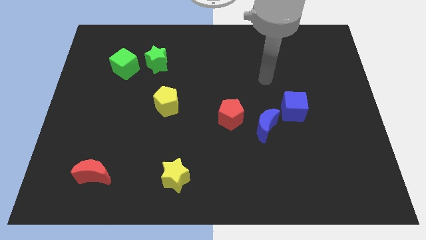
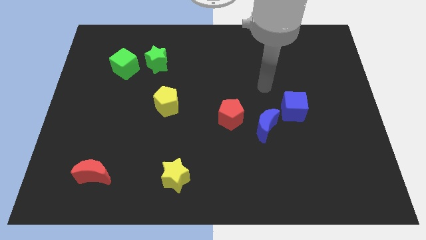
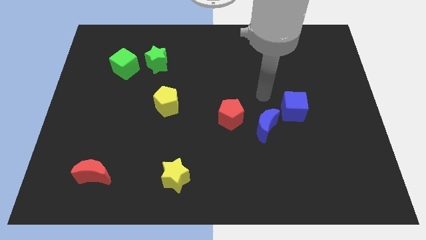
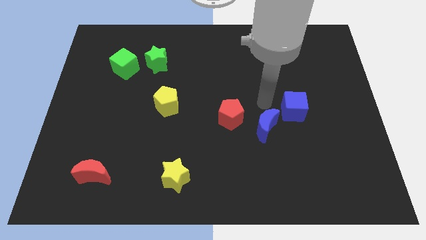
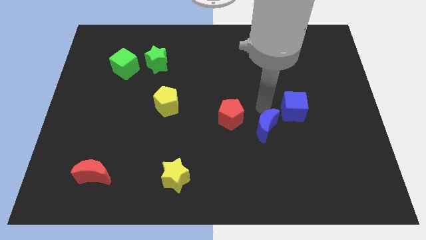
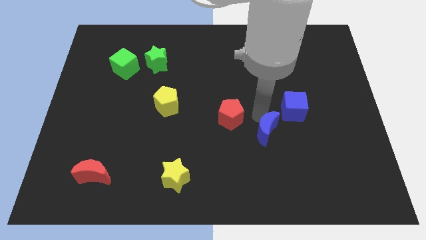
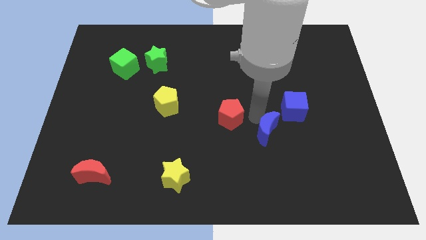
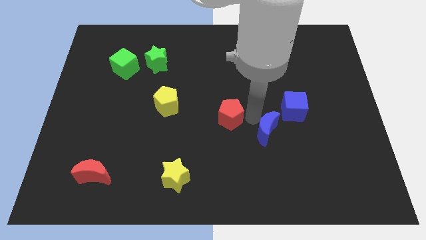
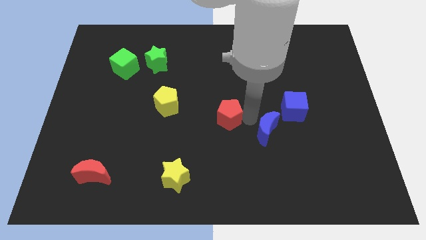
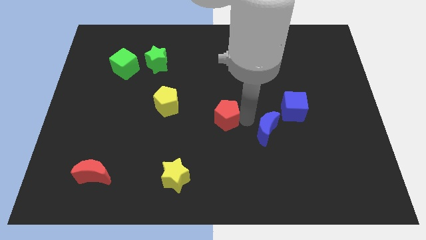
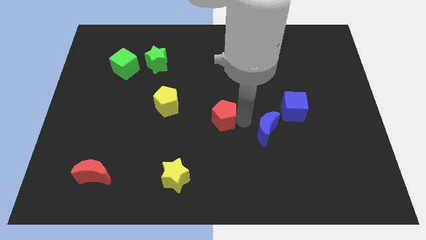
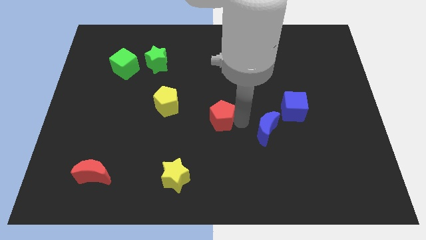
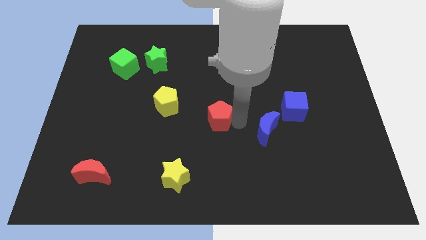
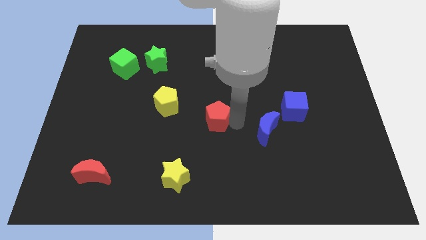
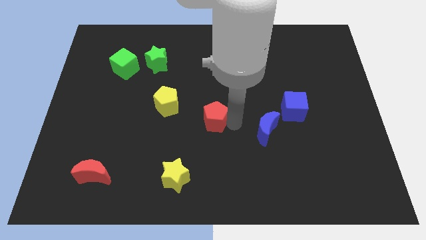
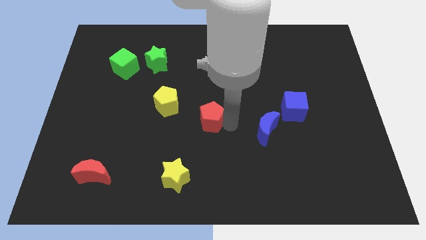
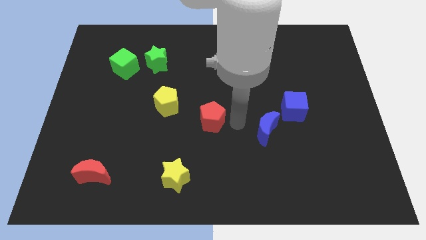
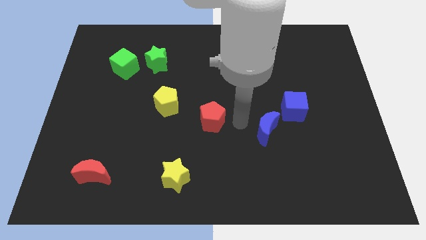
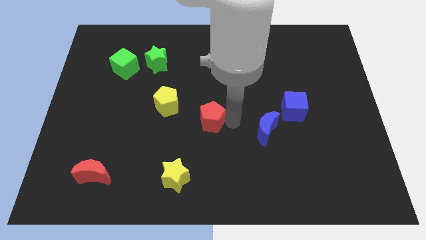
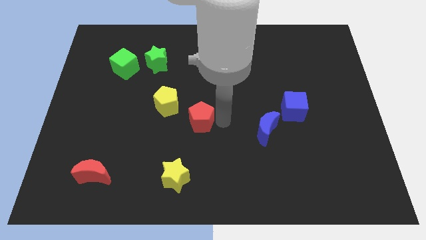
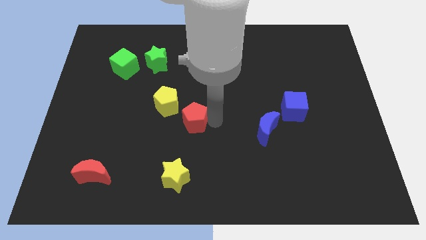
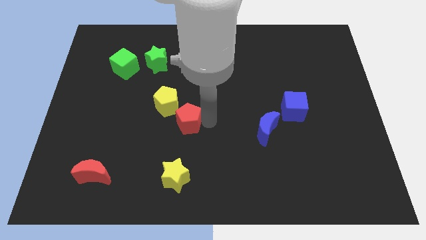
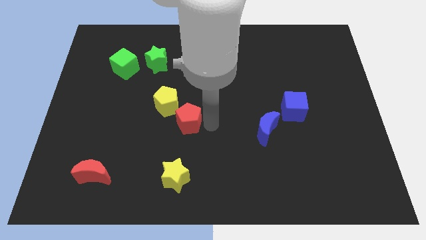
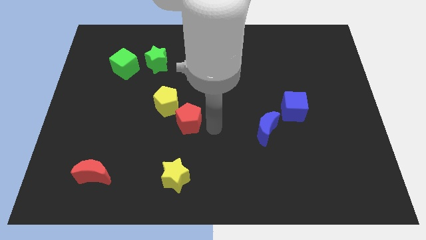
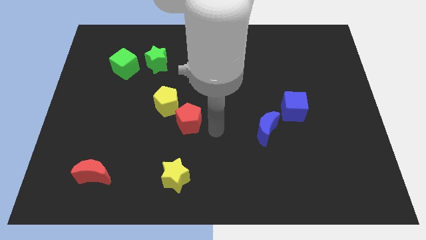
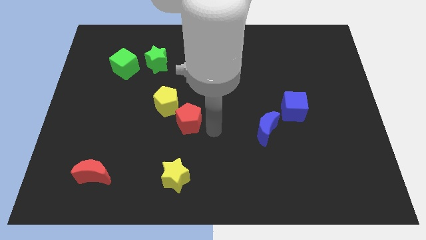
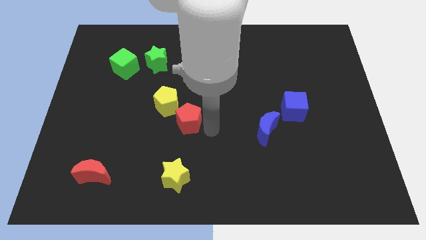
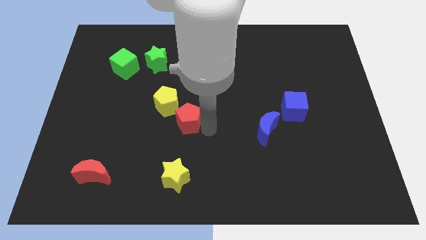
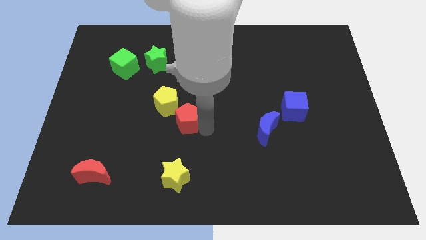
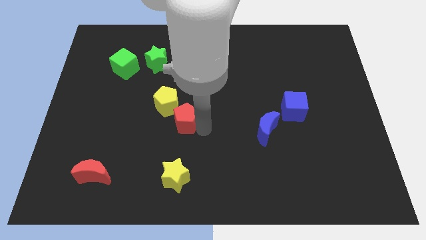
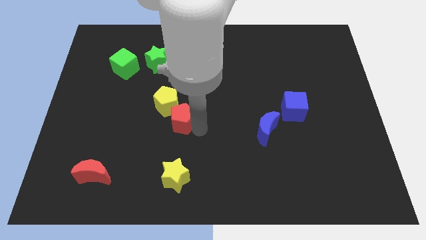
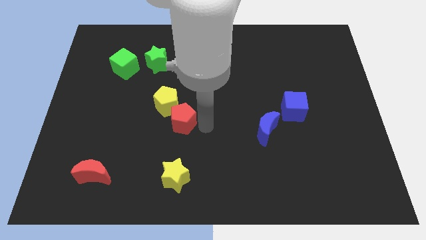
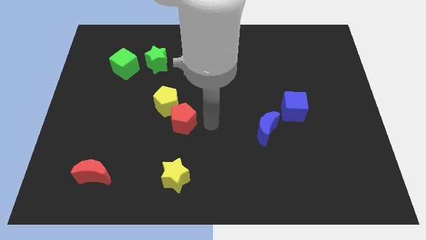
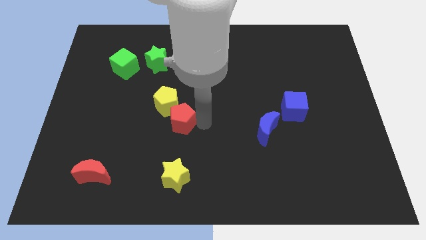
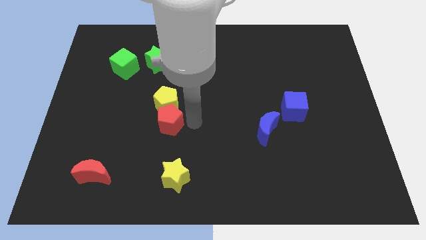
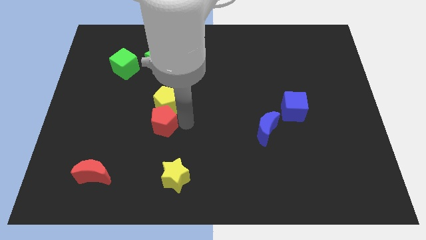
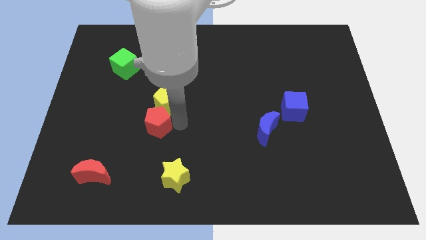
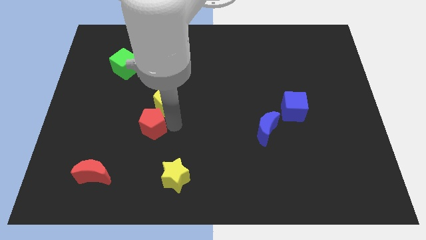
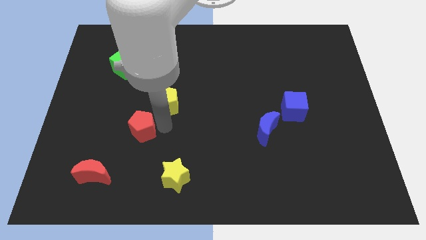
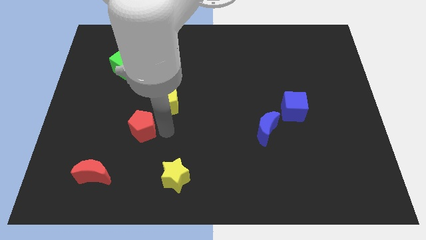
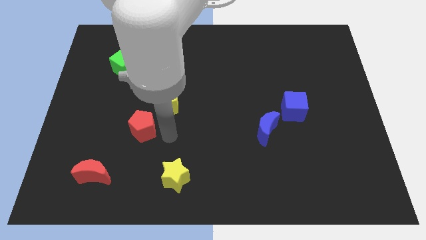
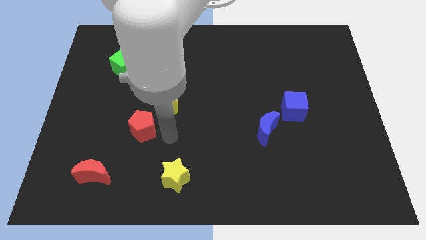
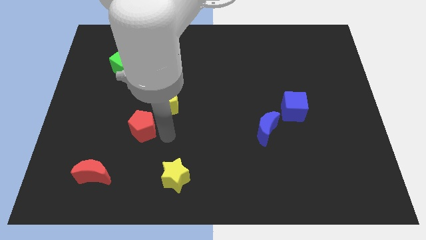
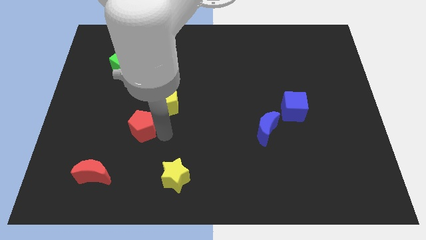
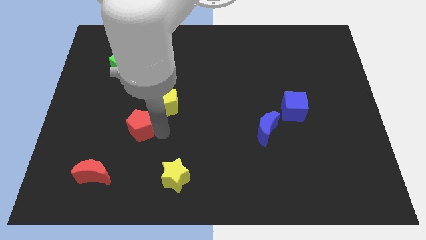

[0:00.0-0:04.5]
push the red pentagon to the left

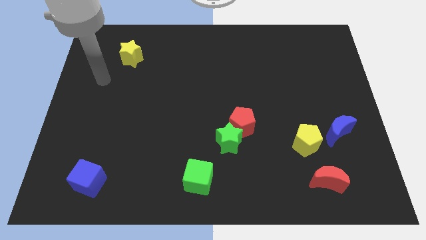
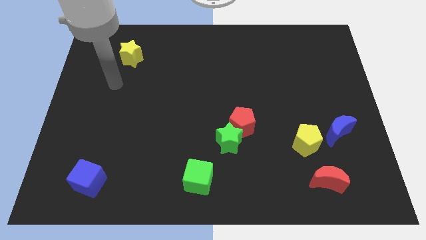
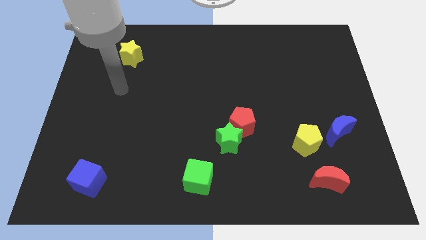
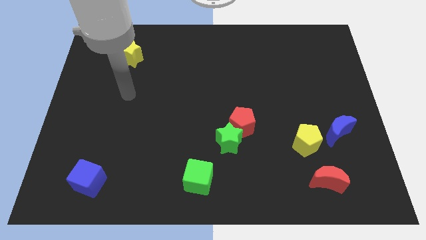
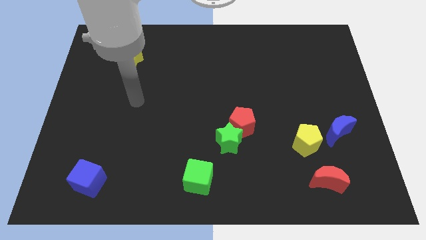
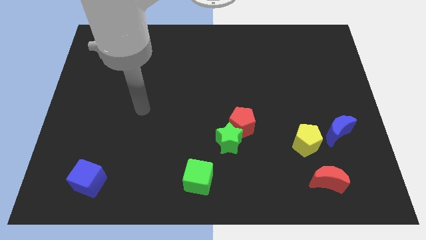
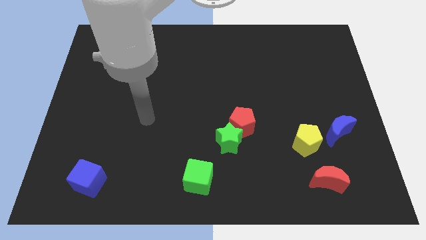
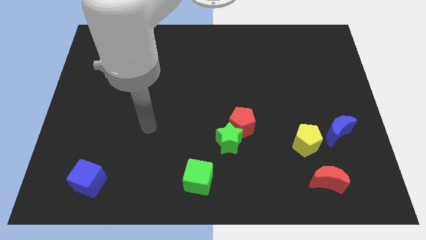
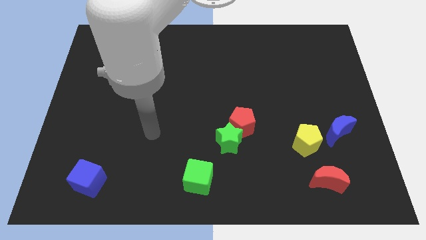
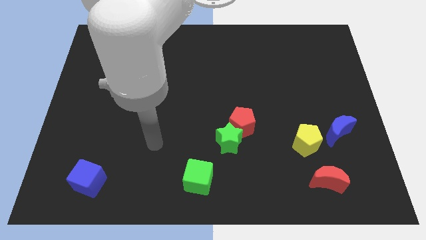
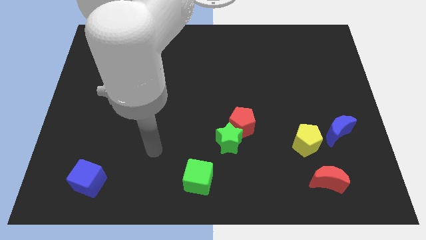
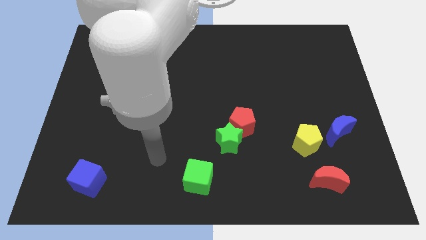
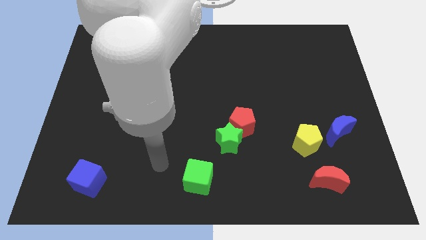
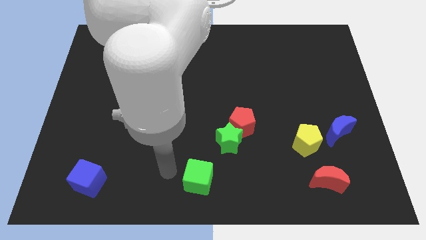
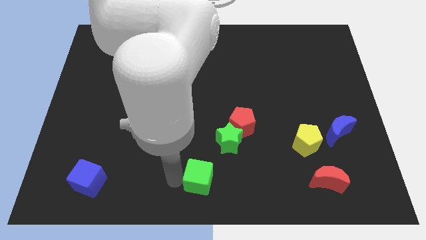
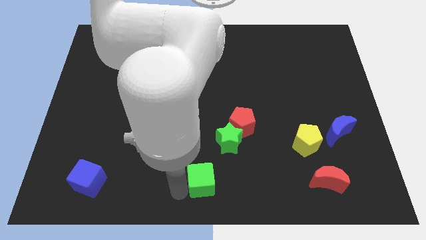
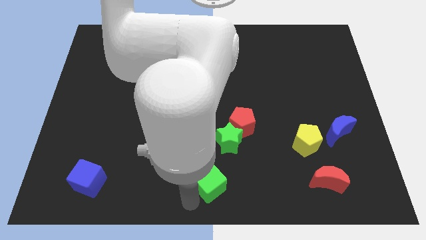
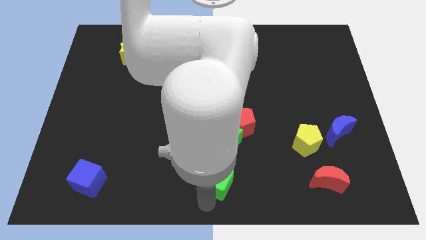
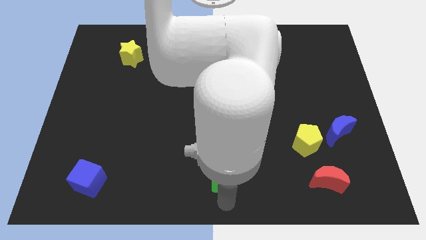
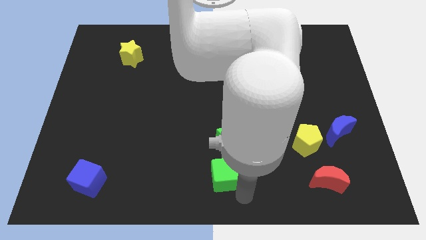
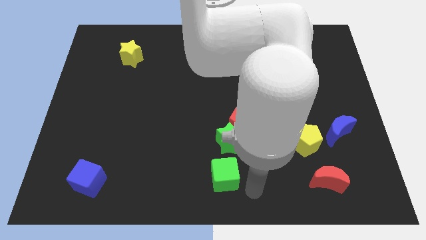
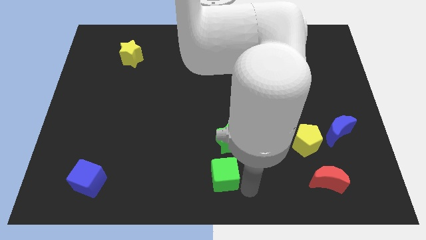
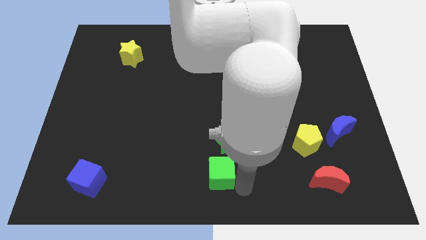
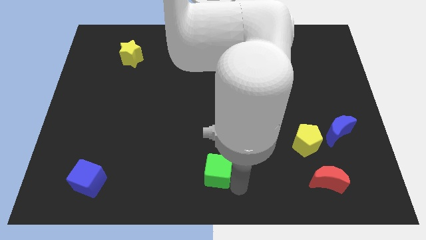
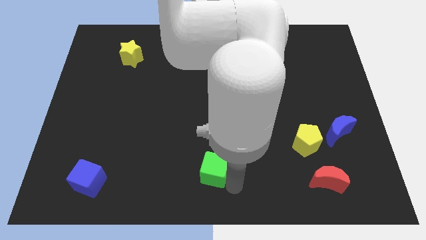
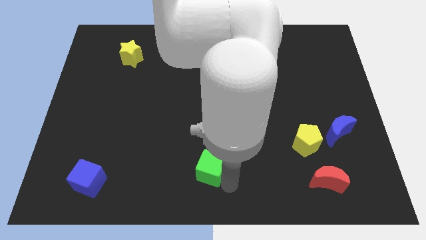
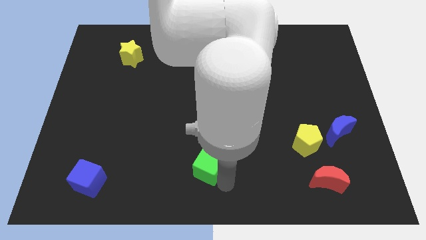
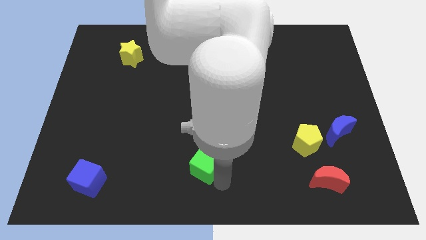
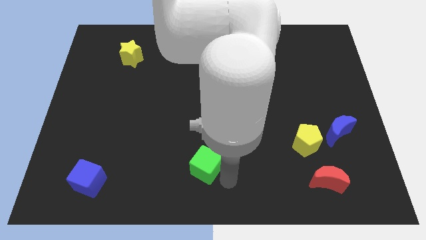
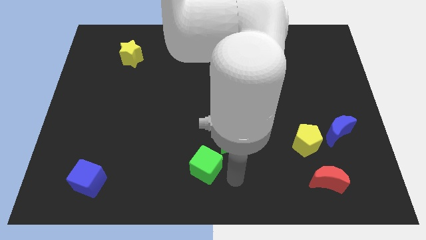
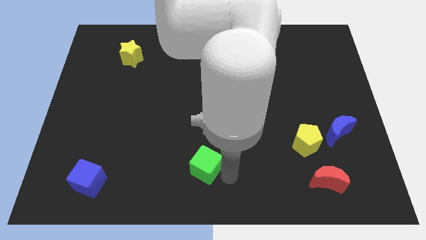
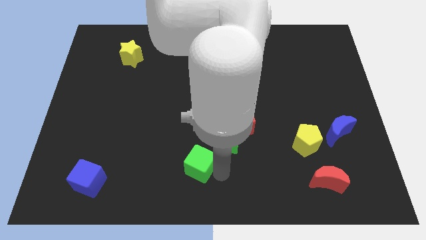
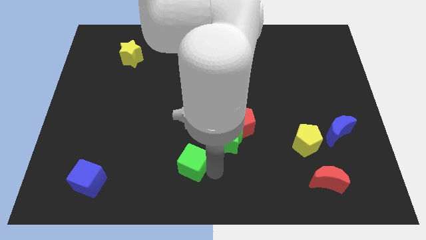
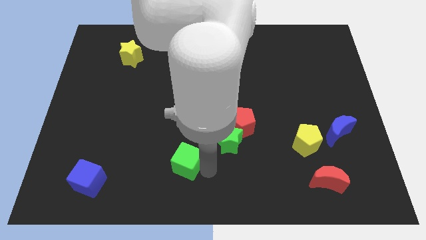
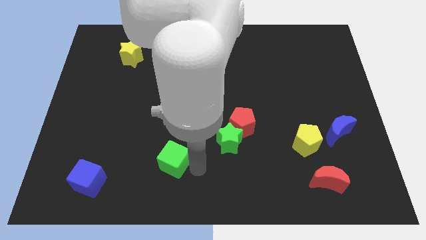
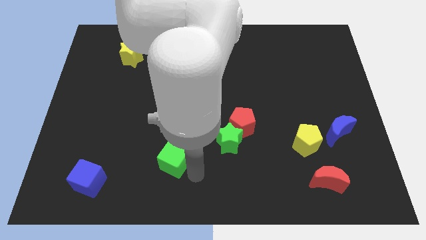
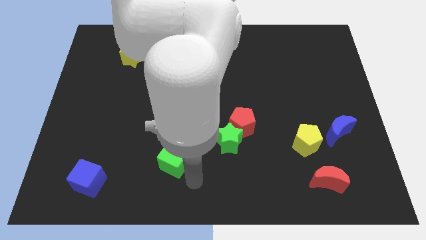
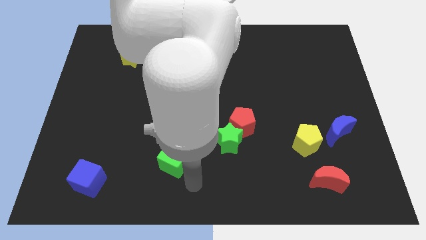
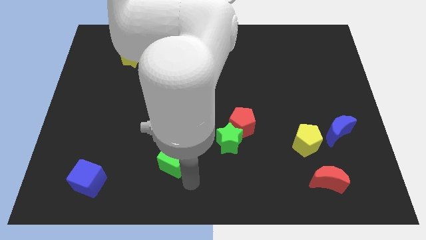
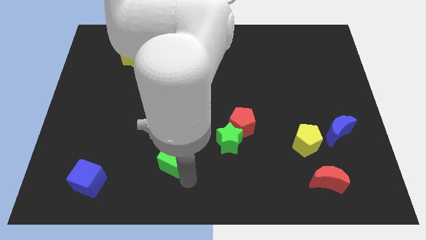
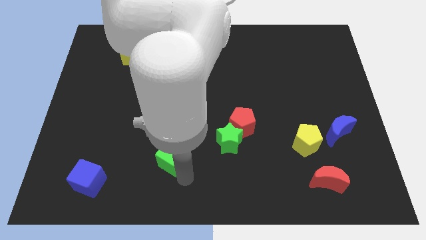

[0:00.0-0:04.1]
slightly move the green cube diagonally upwards and left
